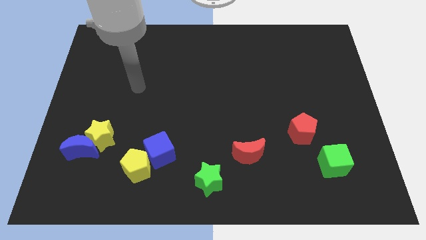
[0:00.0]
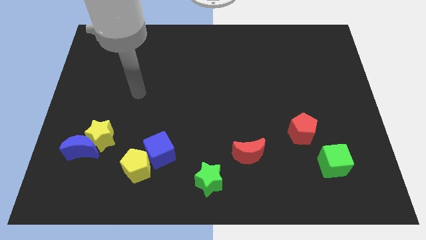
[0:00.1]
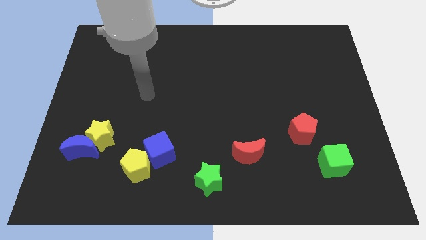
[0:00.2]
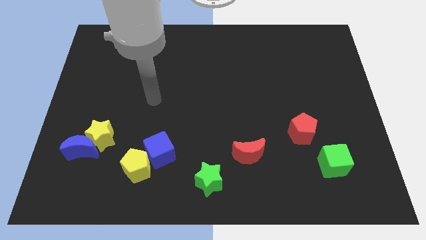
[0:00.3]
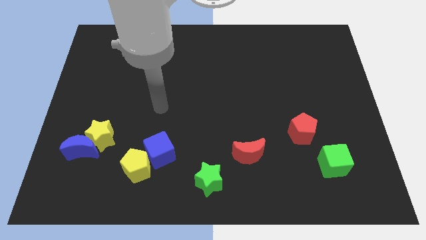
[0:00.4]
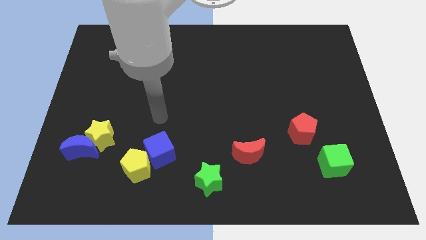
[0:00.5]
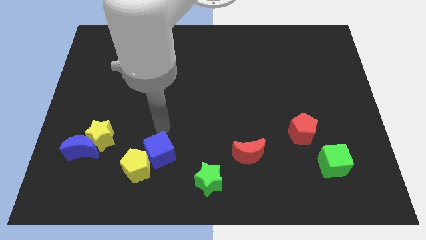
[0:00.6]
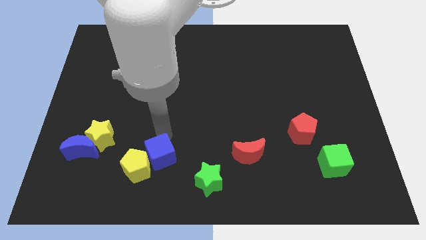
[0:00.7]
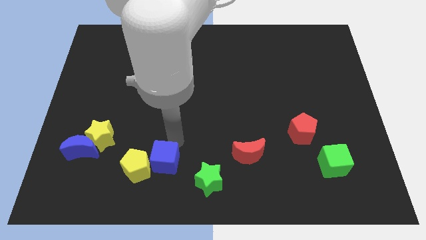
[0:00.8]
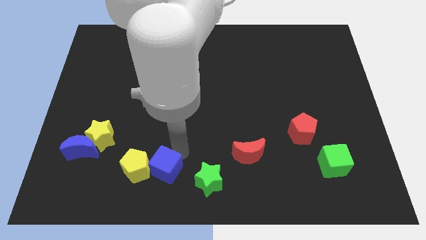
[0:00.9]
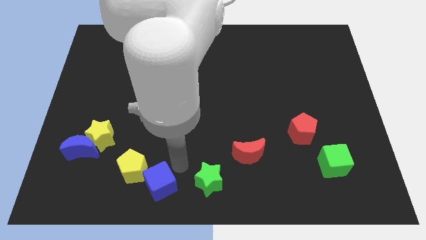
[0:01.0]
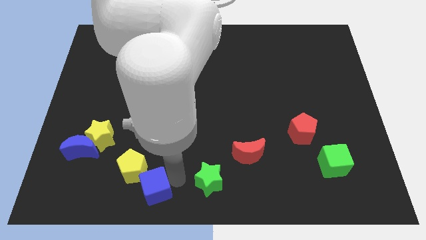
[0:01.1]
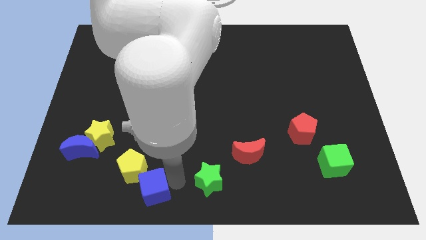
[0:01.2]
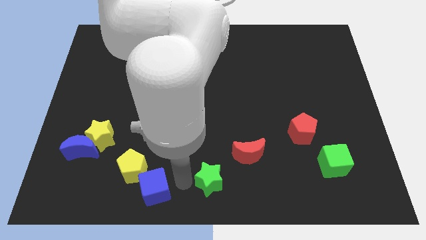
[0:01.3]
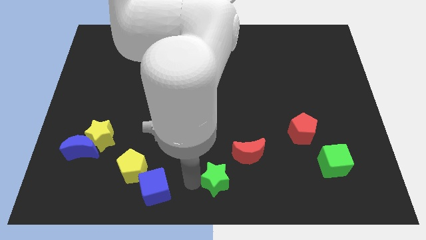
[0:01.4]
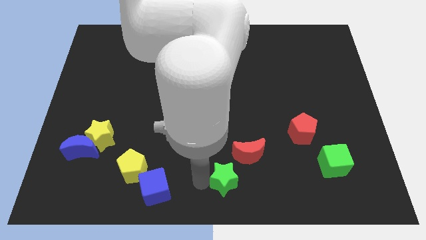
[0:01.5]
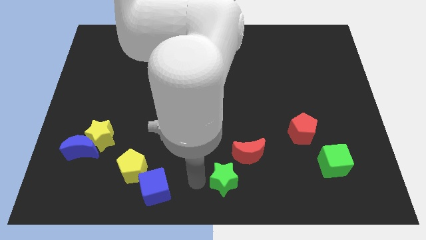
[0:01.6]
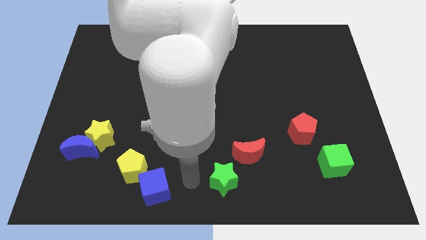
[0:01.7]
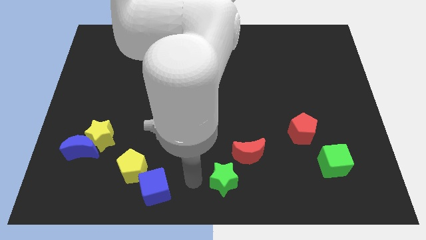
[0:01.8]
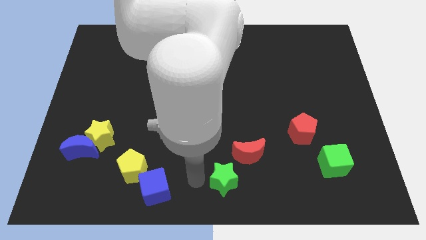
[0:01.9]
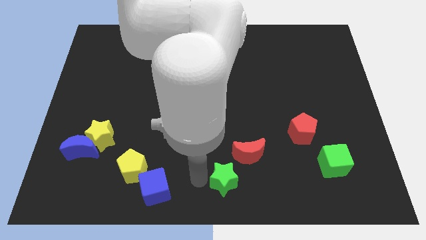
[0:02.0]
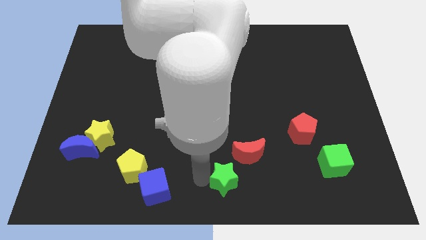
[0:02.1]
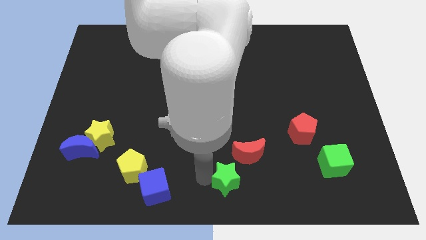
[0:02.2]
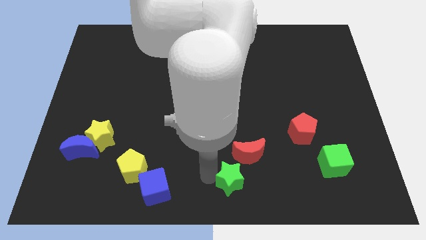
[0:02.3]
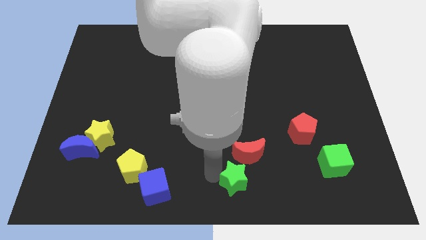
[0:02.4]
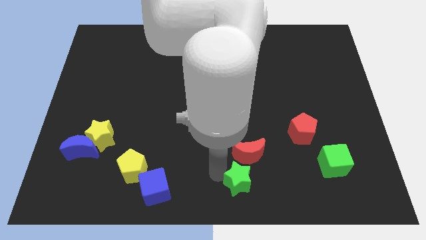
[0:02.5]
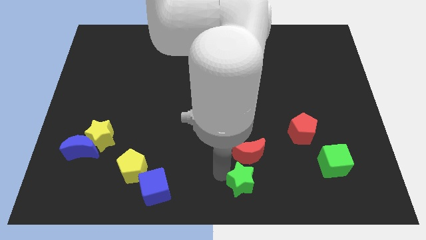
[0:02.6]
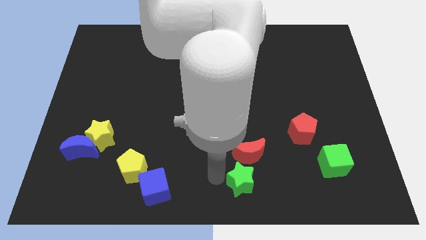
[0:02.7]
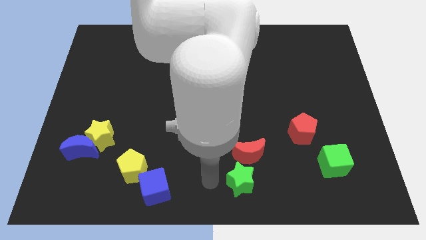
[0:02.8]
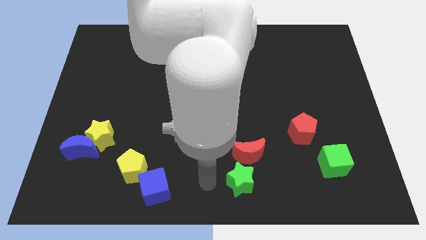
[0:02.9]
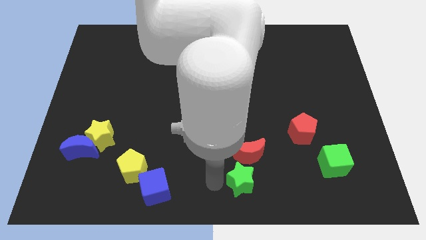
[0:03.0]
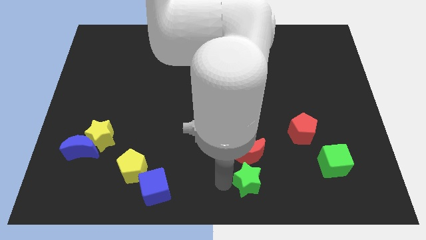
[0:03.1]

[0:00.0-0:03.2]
move the green star right somewhat

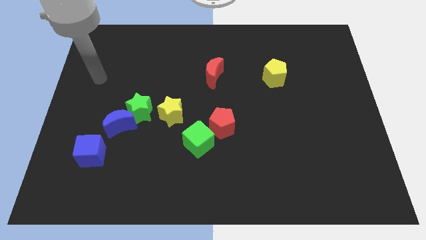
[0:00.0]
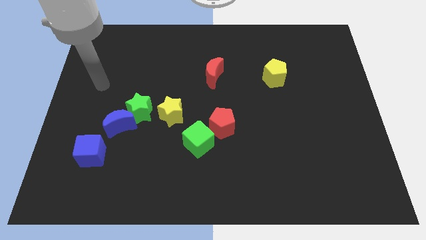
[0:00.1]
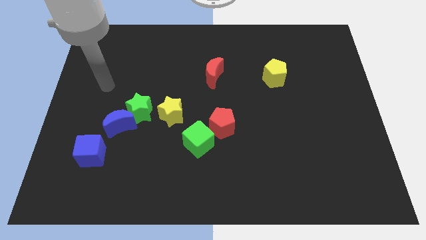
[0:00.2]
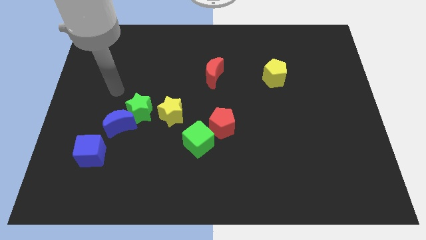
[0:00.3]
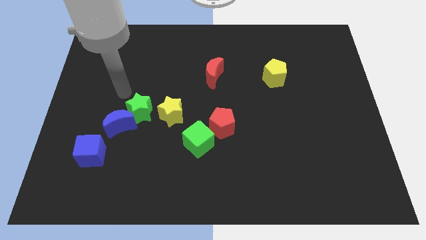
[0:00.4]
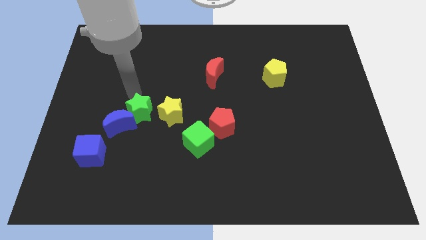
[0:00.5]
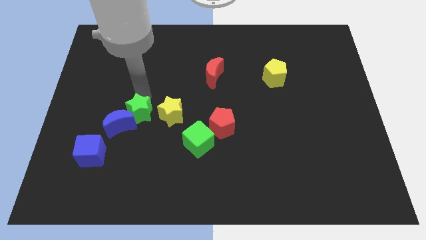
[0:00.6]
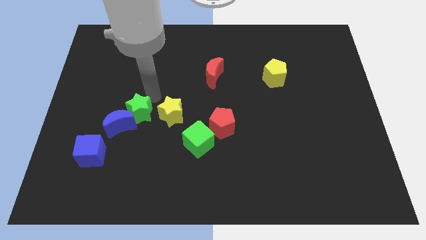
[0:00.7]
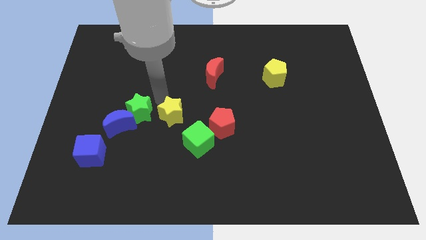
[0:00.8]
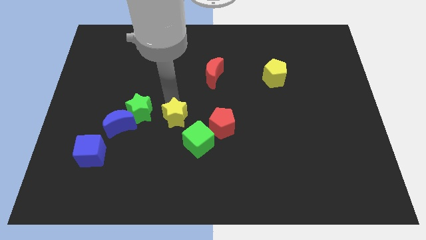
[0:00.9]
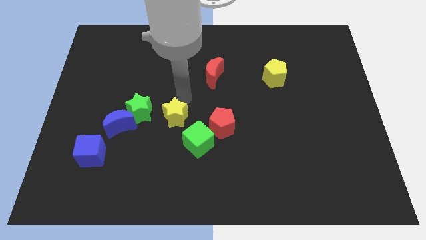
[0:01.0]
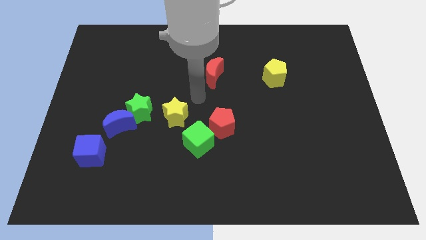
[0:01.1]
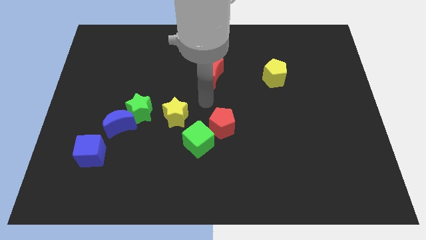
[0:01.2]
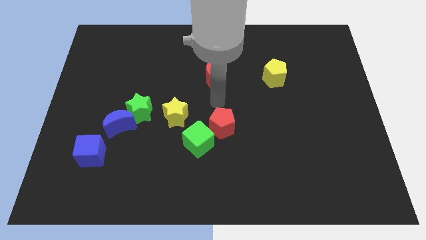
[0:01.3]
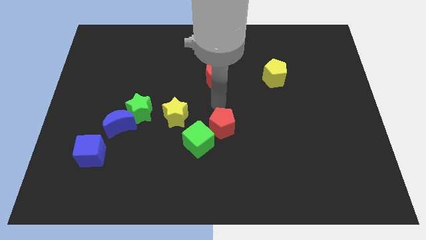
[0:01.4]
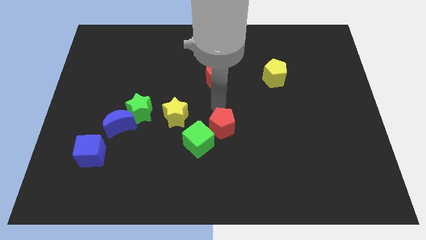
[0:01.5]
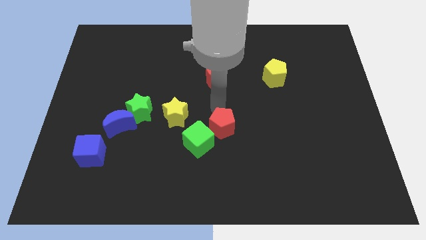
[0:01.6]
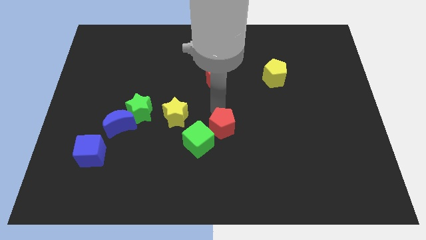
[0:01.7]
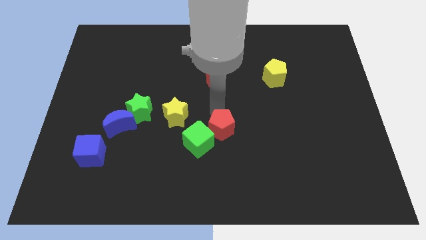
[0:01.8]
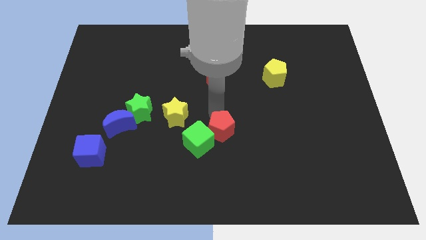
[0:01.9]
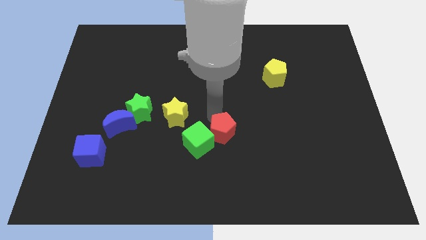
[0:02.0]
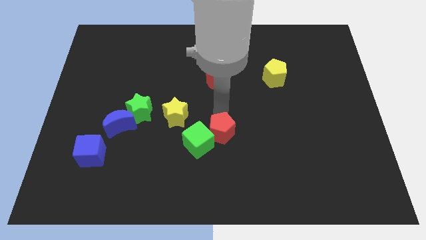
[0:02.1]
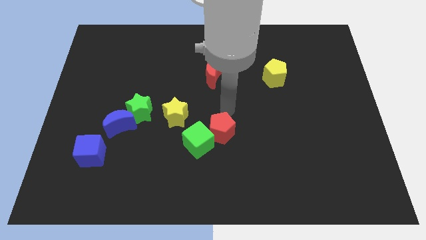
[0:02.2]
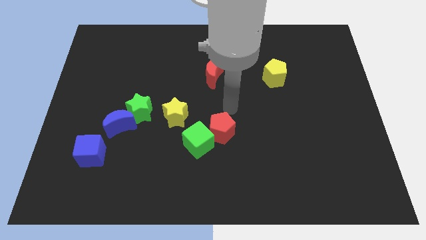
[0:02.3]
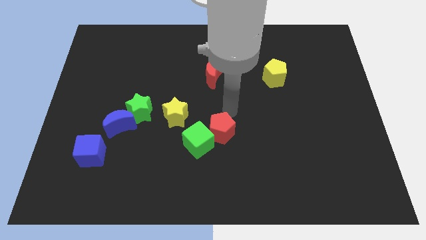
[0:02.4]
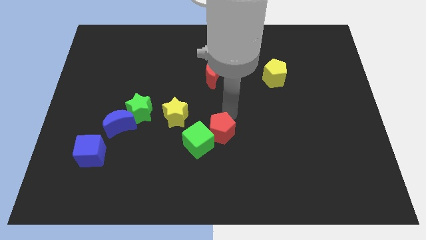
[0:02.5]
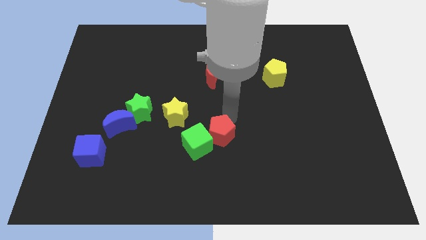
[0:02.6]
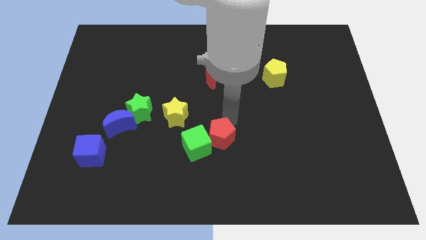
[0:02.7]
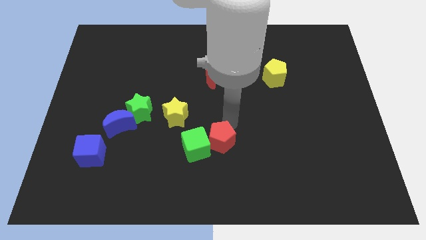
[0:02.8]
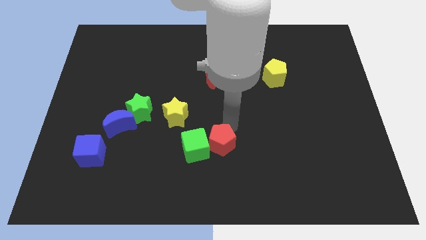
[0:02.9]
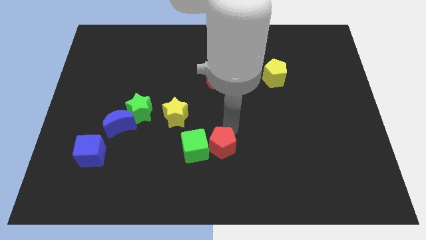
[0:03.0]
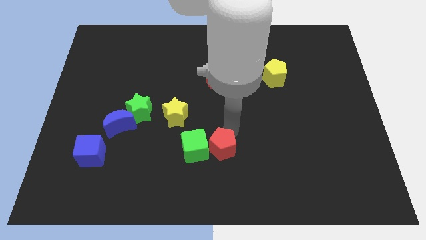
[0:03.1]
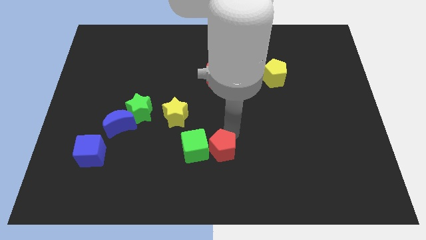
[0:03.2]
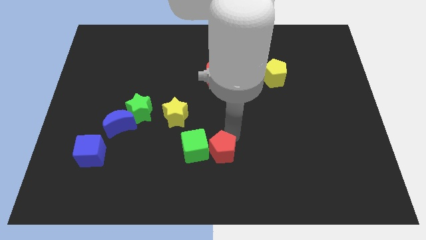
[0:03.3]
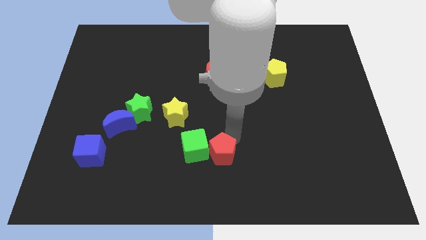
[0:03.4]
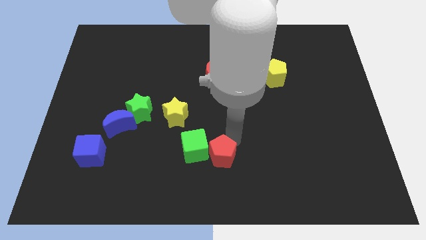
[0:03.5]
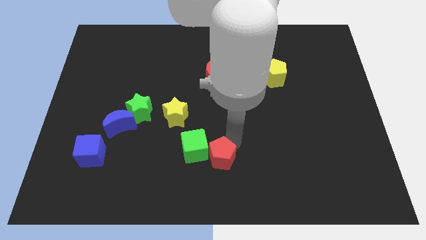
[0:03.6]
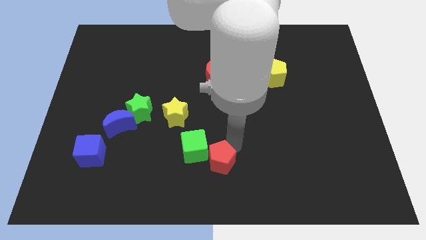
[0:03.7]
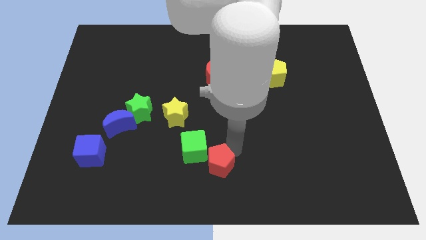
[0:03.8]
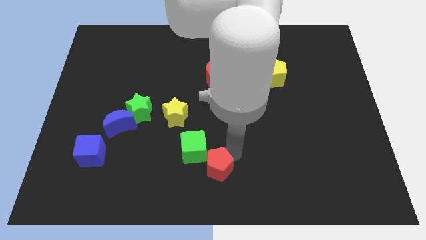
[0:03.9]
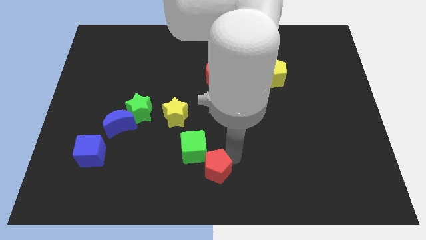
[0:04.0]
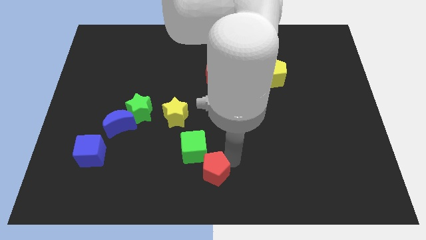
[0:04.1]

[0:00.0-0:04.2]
push the red pentagon down and to the left a little

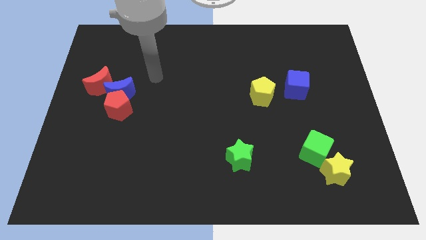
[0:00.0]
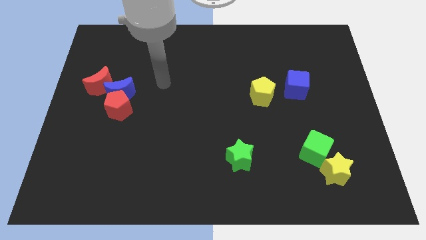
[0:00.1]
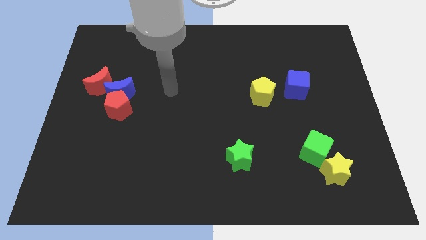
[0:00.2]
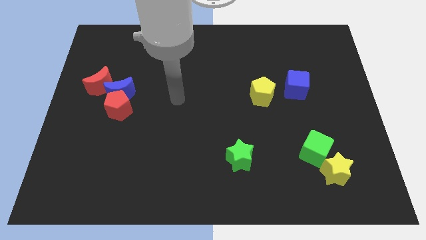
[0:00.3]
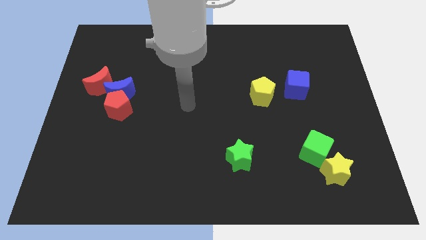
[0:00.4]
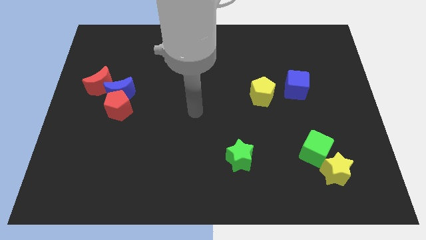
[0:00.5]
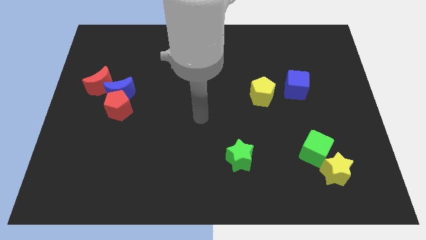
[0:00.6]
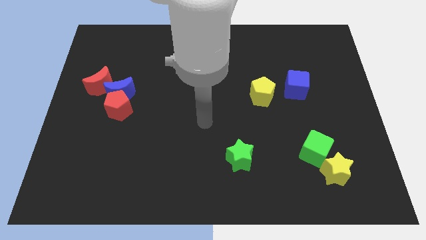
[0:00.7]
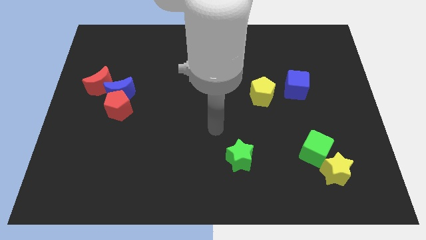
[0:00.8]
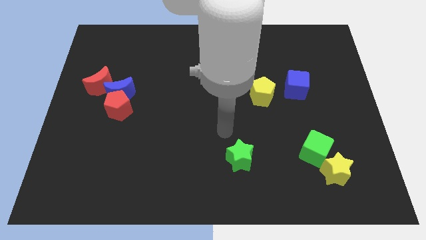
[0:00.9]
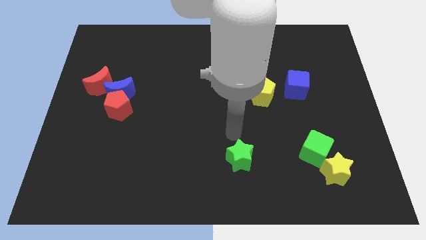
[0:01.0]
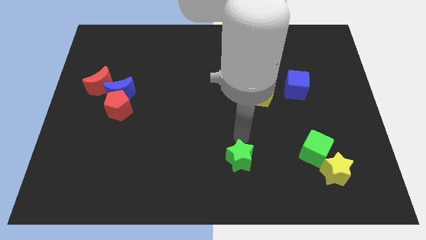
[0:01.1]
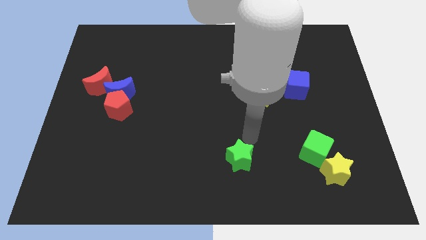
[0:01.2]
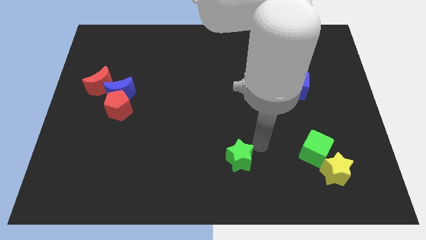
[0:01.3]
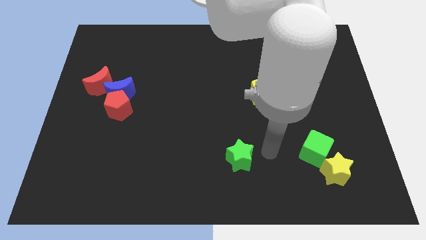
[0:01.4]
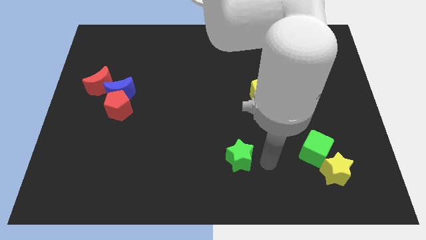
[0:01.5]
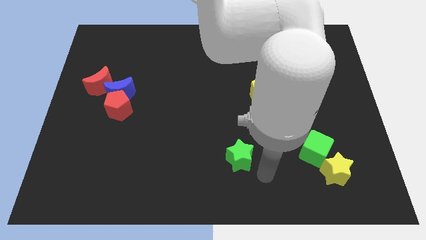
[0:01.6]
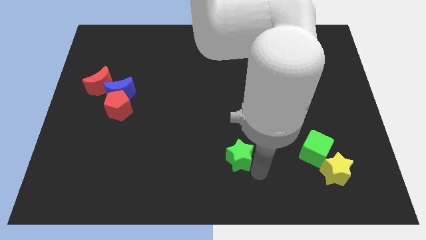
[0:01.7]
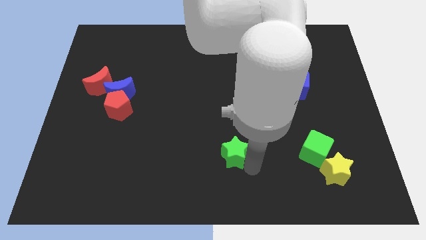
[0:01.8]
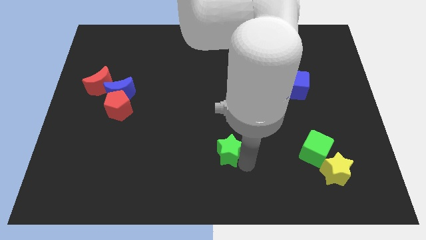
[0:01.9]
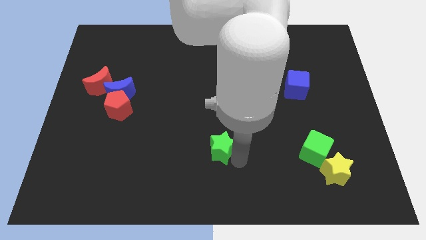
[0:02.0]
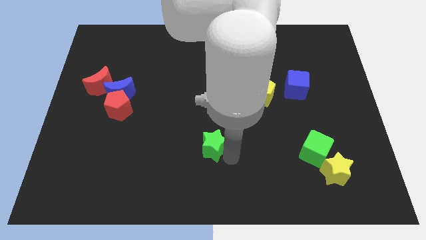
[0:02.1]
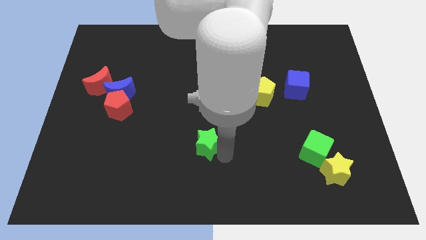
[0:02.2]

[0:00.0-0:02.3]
push the green star diagonally upwards and left a little
